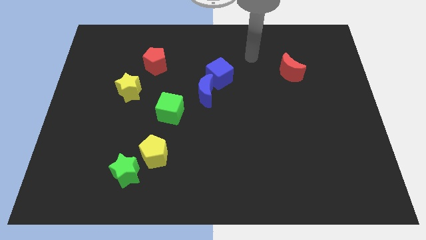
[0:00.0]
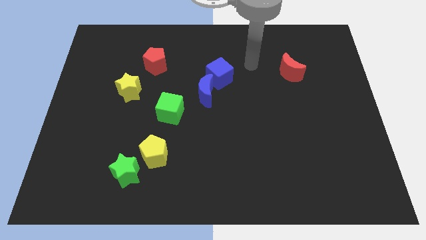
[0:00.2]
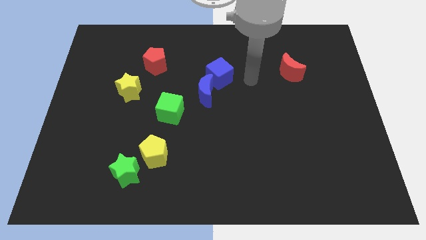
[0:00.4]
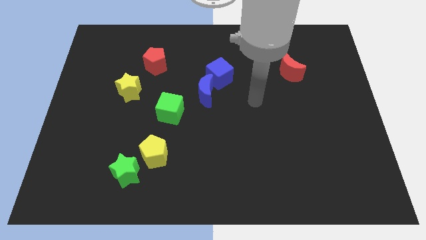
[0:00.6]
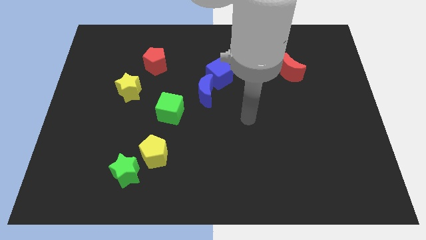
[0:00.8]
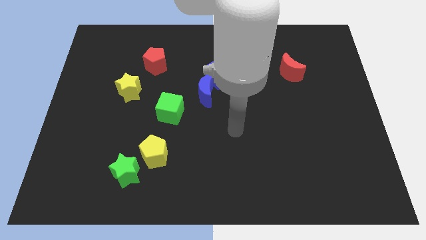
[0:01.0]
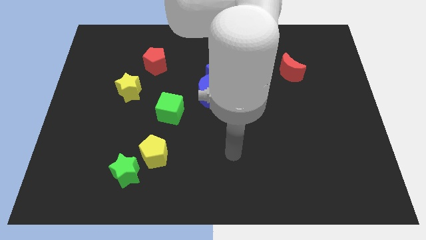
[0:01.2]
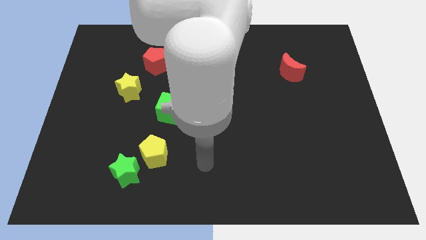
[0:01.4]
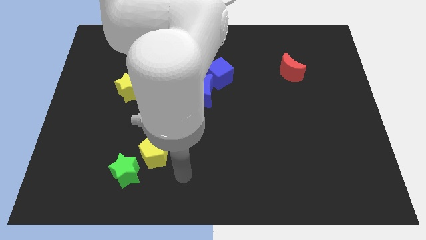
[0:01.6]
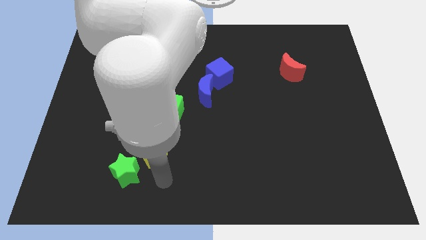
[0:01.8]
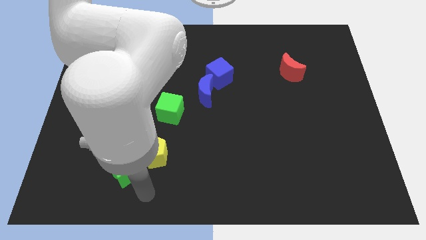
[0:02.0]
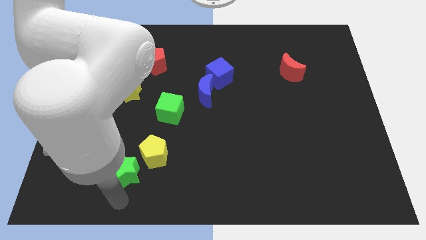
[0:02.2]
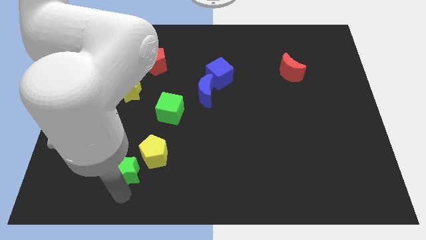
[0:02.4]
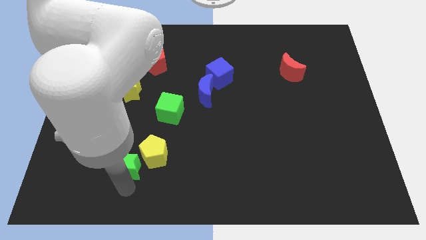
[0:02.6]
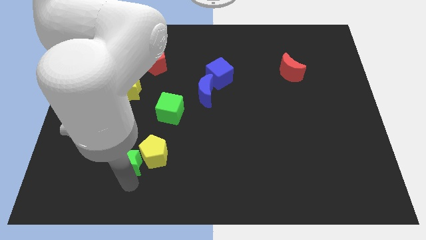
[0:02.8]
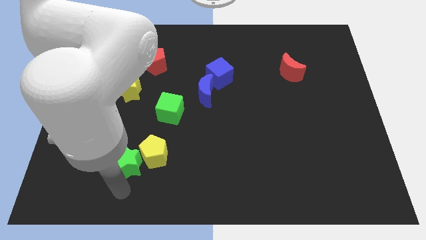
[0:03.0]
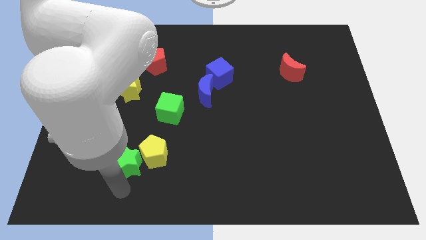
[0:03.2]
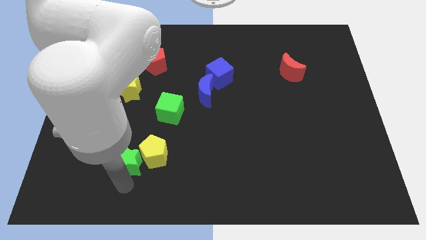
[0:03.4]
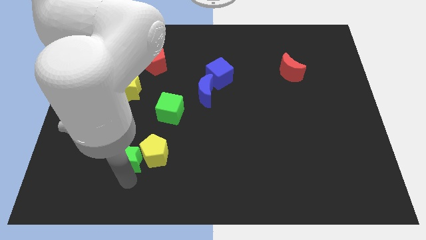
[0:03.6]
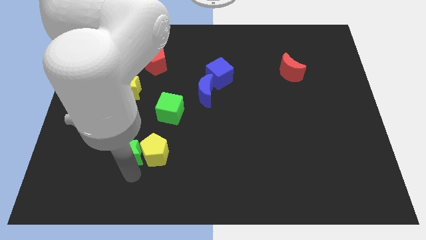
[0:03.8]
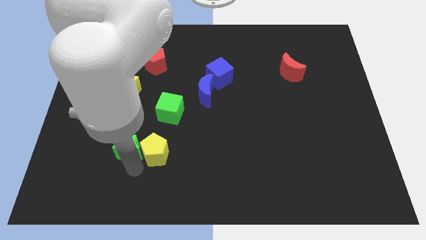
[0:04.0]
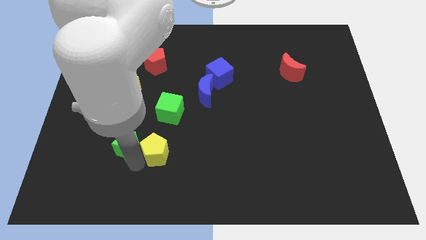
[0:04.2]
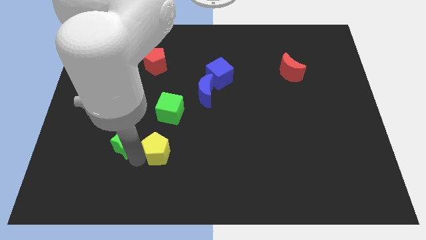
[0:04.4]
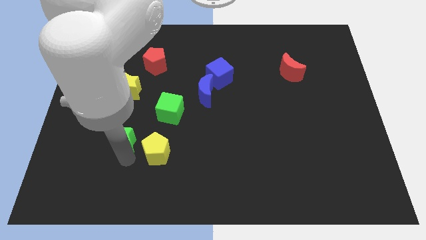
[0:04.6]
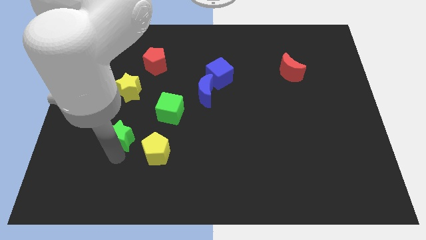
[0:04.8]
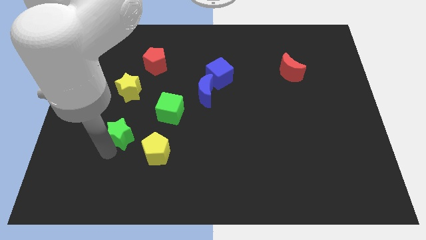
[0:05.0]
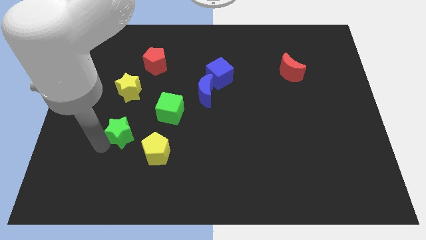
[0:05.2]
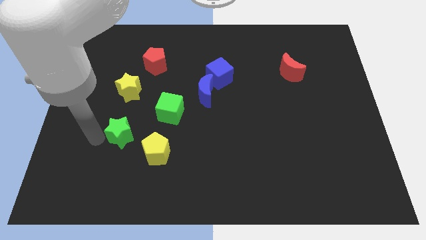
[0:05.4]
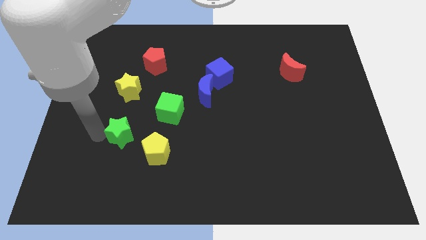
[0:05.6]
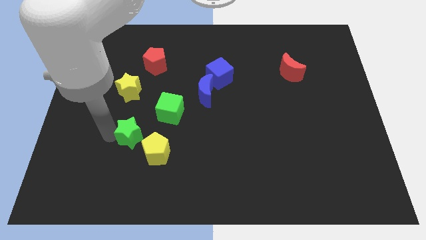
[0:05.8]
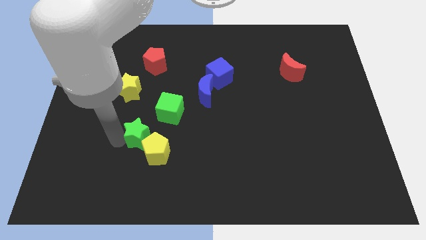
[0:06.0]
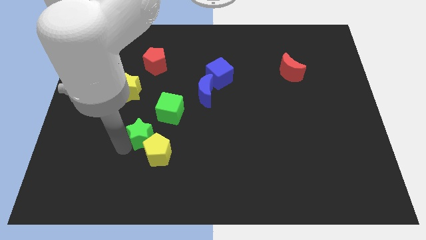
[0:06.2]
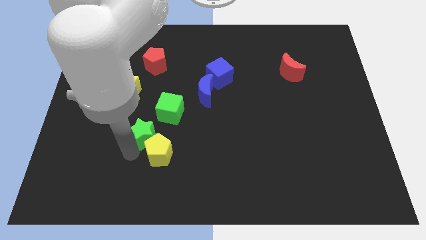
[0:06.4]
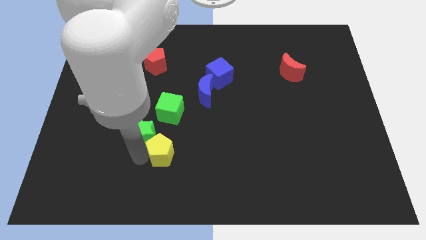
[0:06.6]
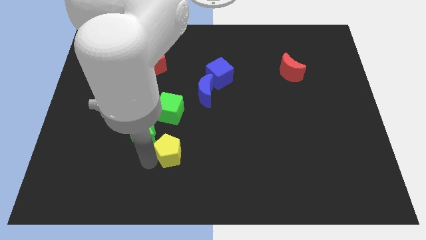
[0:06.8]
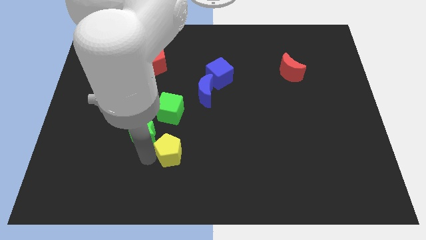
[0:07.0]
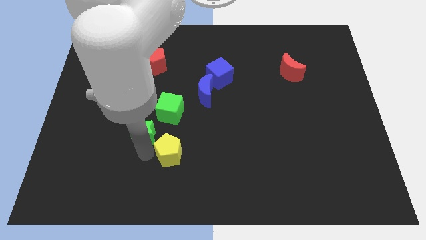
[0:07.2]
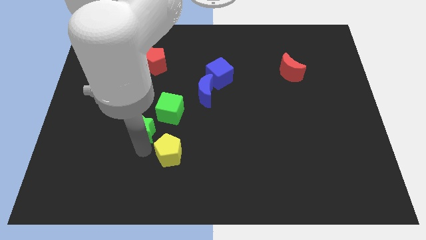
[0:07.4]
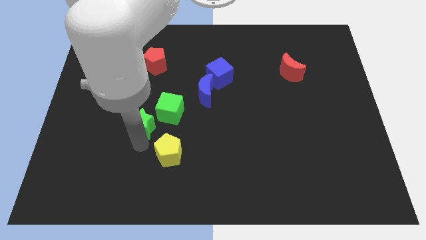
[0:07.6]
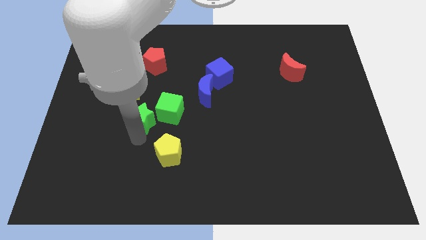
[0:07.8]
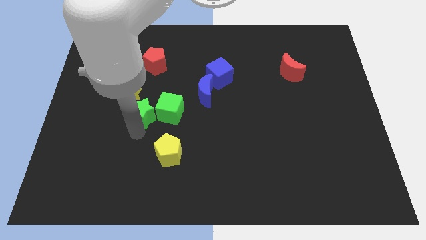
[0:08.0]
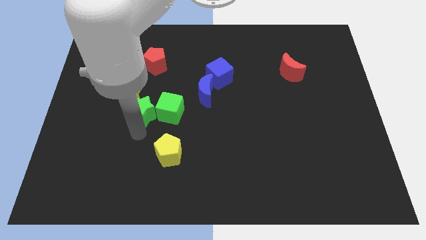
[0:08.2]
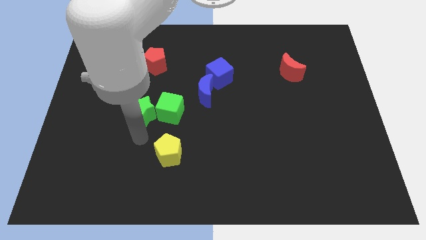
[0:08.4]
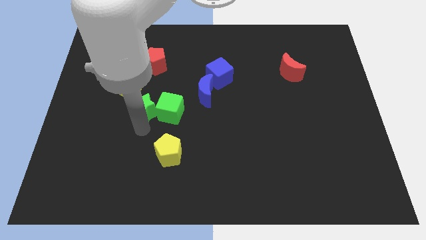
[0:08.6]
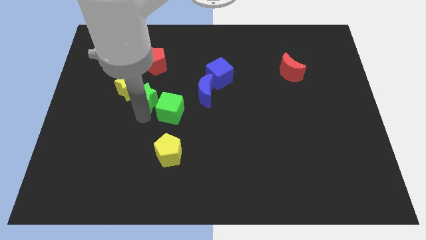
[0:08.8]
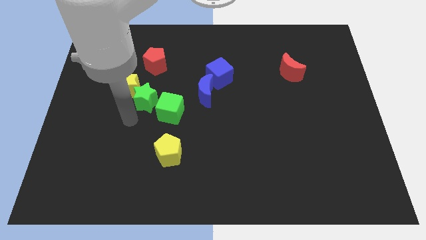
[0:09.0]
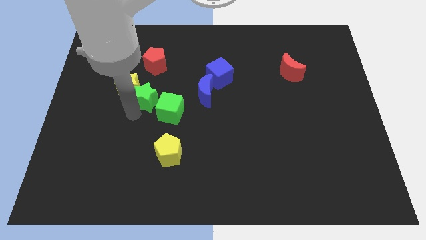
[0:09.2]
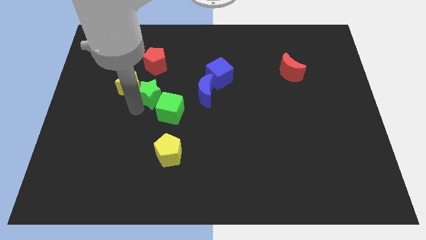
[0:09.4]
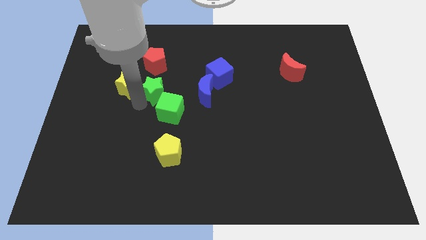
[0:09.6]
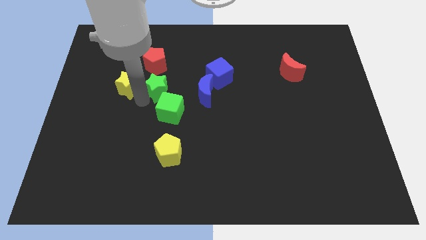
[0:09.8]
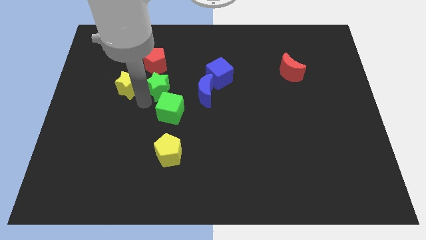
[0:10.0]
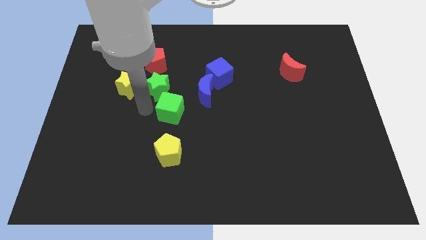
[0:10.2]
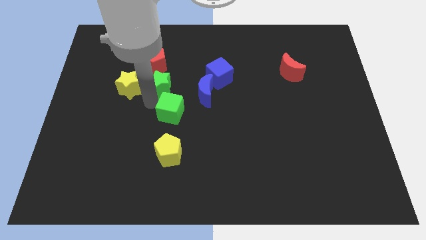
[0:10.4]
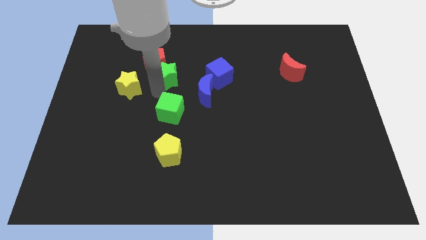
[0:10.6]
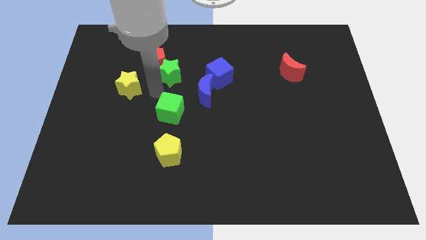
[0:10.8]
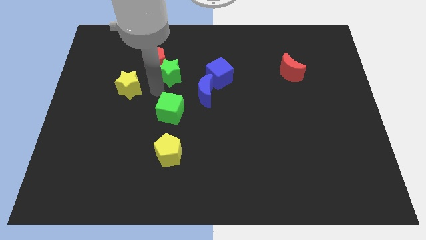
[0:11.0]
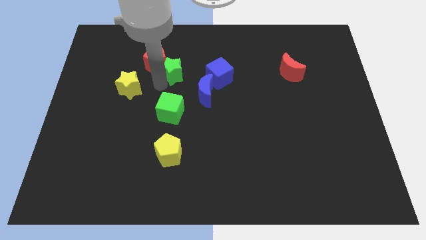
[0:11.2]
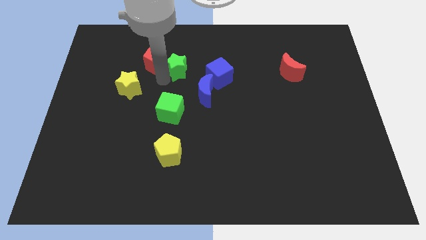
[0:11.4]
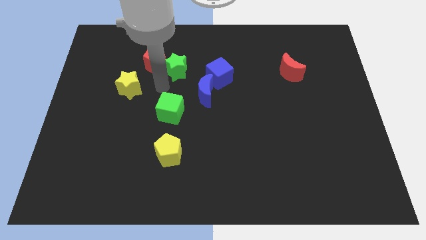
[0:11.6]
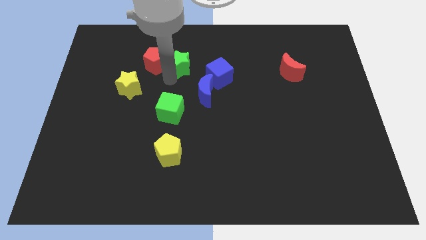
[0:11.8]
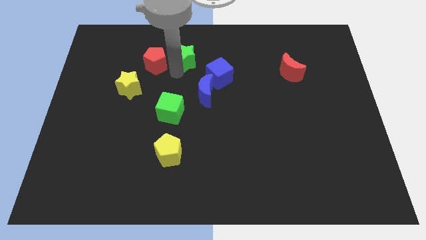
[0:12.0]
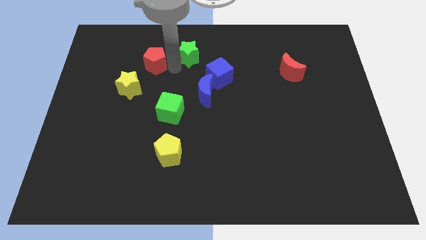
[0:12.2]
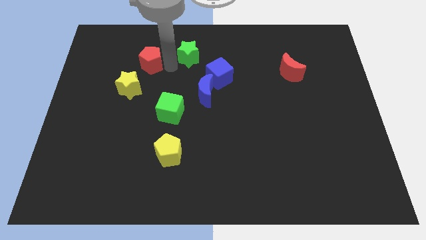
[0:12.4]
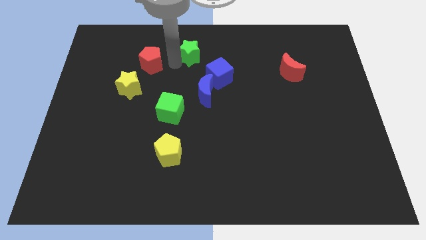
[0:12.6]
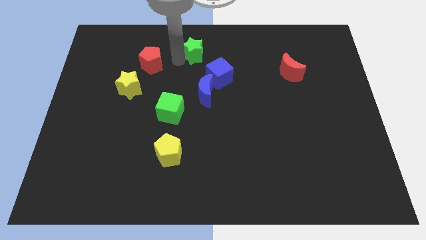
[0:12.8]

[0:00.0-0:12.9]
move the green star to the top side

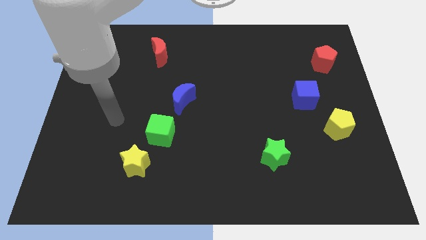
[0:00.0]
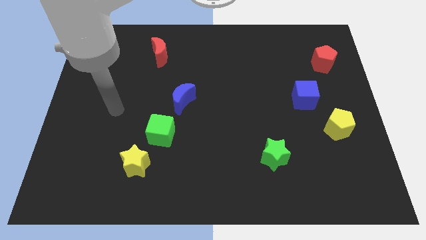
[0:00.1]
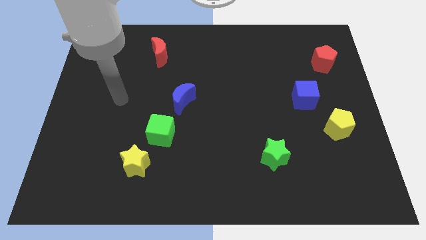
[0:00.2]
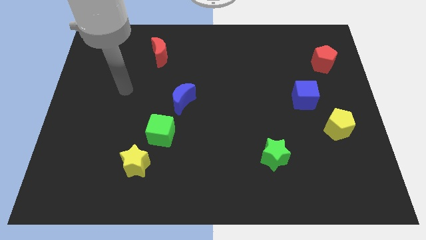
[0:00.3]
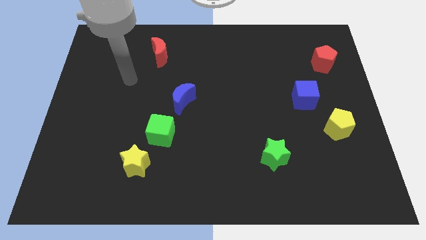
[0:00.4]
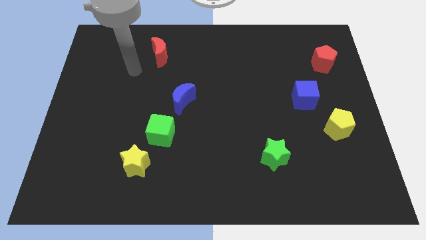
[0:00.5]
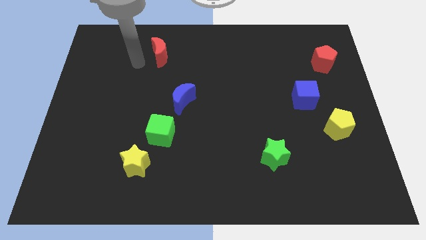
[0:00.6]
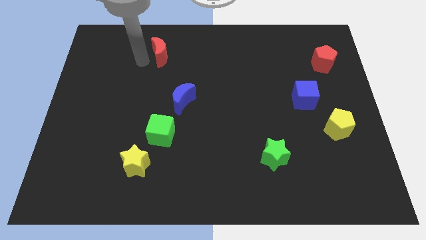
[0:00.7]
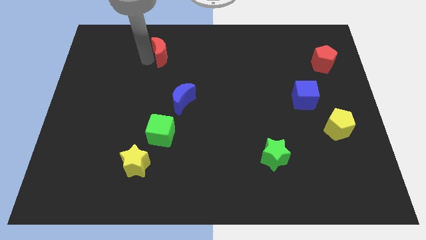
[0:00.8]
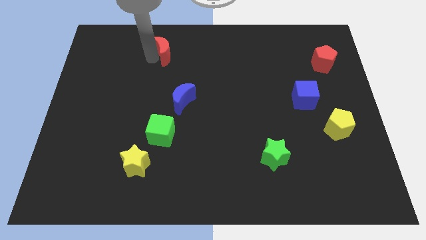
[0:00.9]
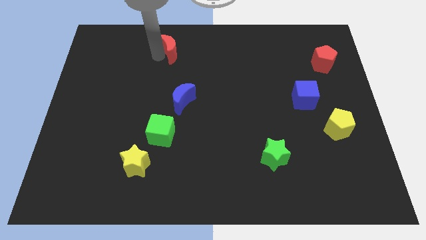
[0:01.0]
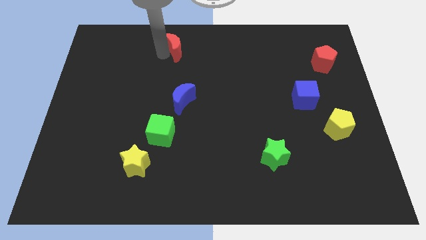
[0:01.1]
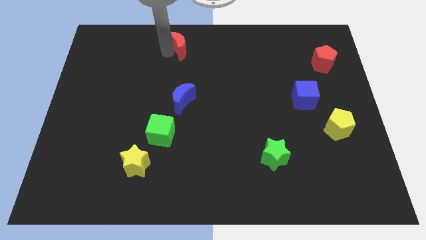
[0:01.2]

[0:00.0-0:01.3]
push the red moon to the top
